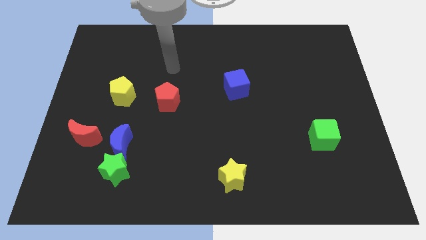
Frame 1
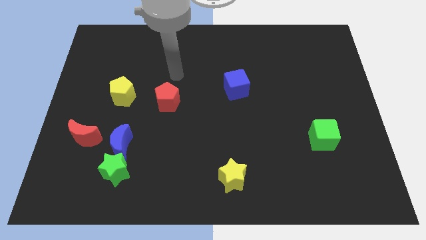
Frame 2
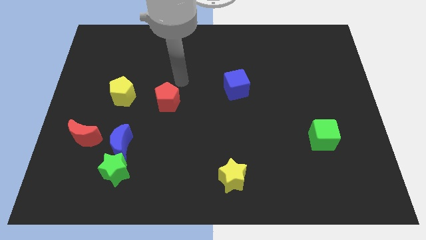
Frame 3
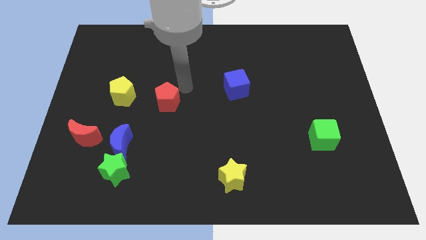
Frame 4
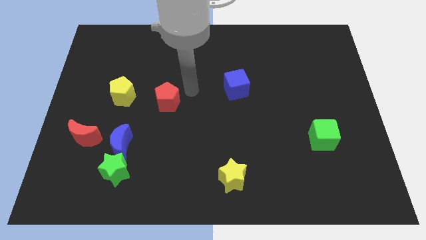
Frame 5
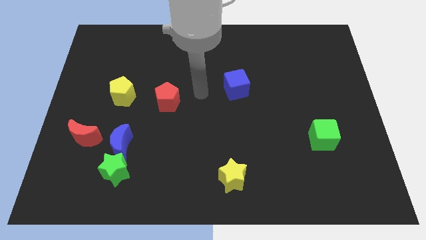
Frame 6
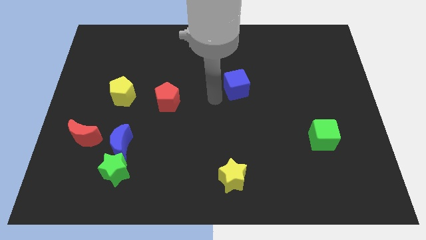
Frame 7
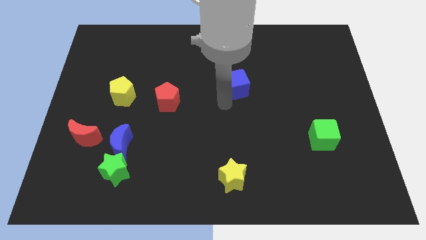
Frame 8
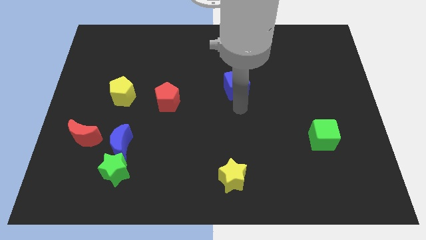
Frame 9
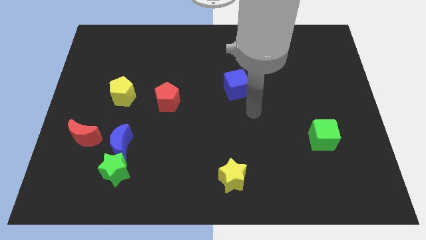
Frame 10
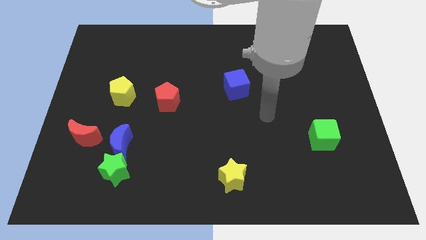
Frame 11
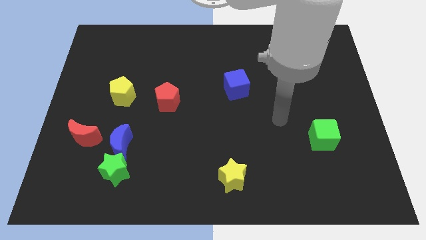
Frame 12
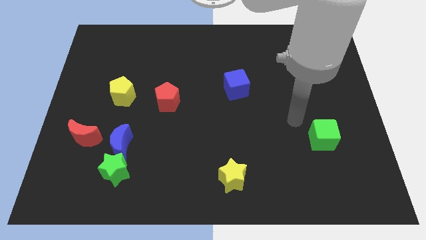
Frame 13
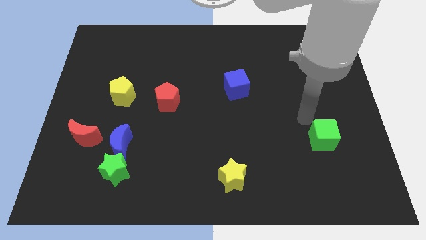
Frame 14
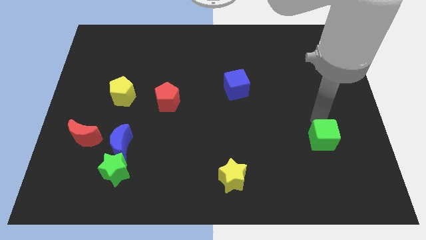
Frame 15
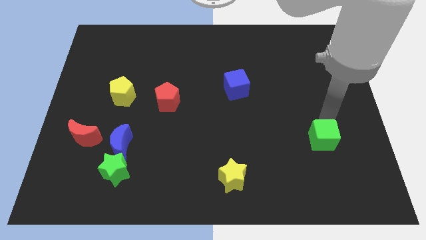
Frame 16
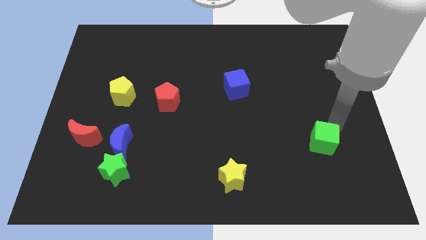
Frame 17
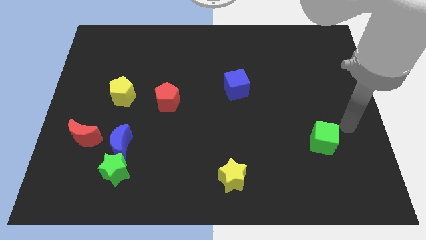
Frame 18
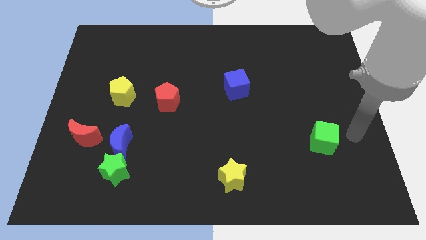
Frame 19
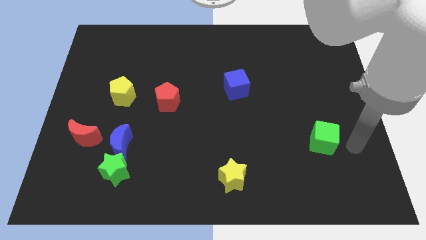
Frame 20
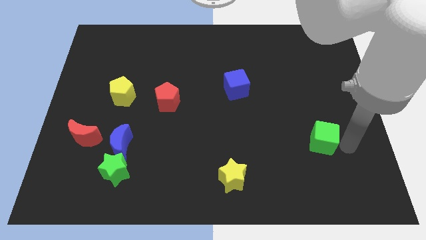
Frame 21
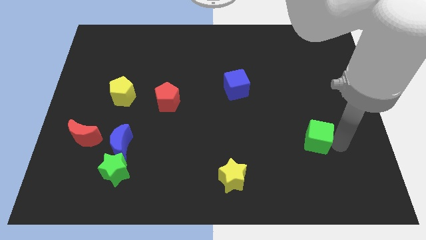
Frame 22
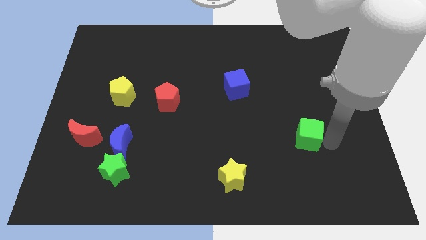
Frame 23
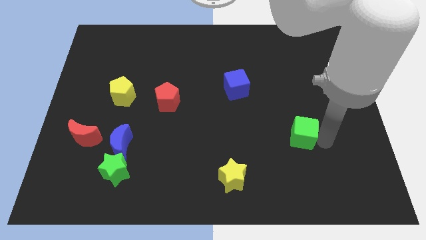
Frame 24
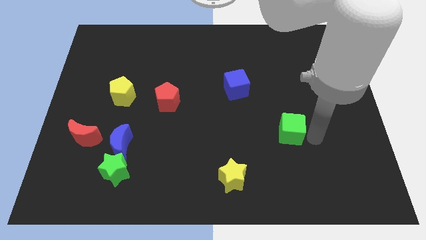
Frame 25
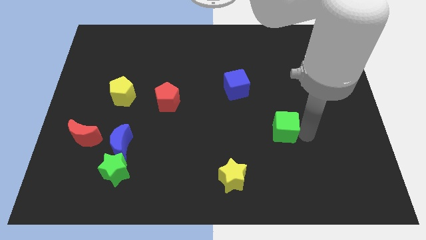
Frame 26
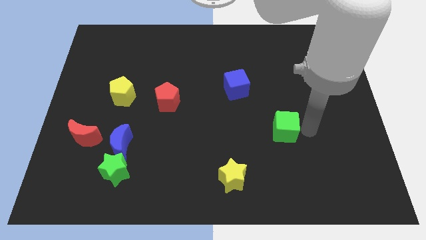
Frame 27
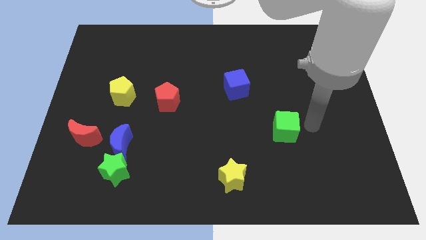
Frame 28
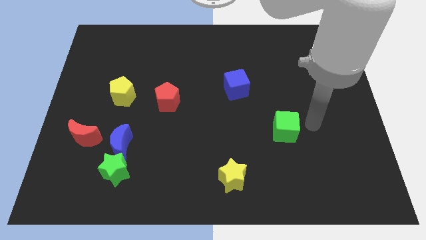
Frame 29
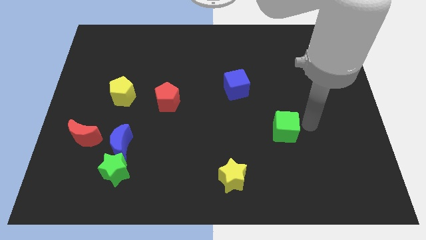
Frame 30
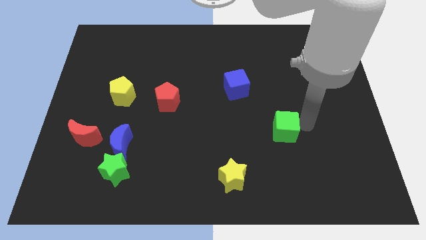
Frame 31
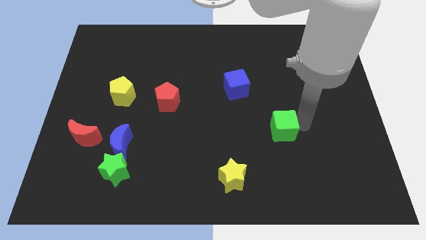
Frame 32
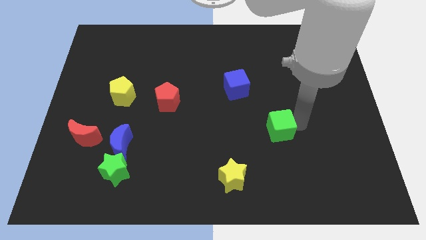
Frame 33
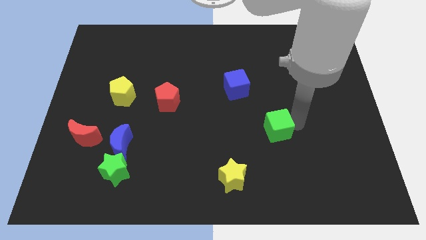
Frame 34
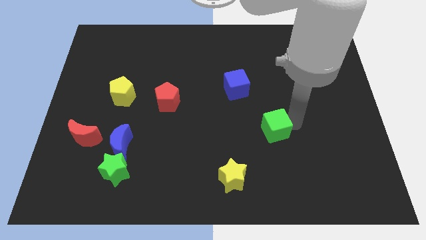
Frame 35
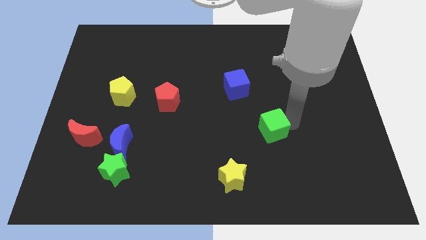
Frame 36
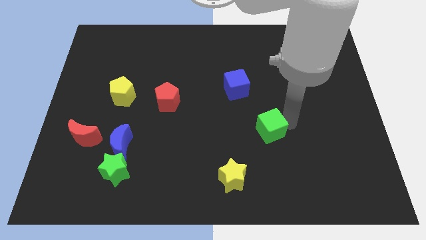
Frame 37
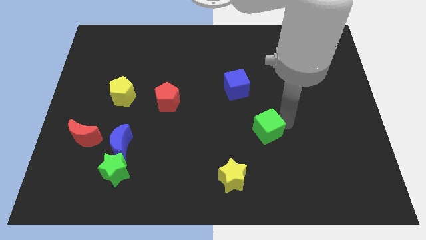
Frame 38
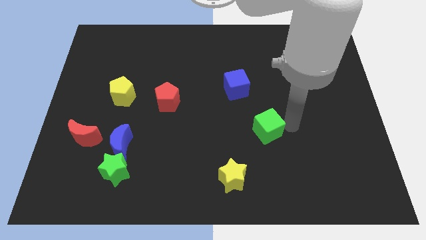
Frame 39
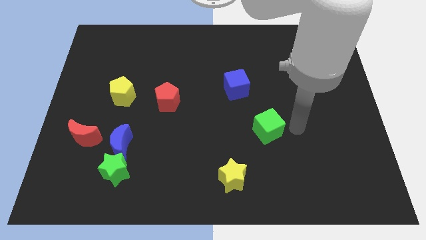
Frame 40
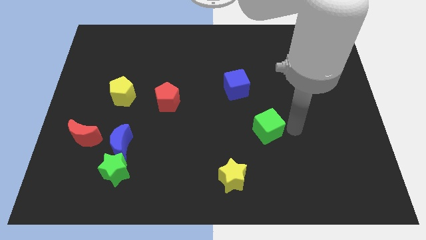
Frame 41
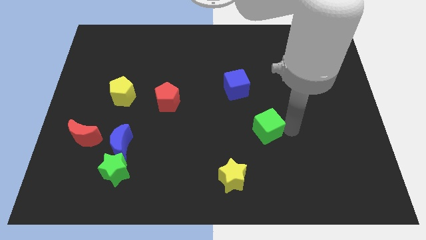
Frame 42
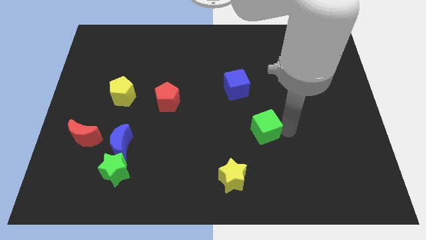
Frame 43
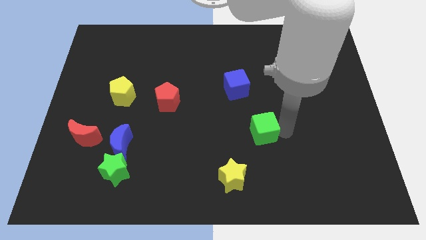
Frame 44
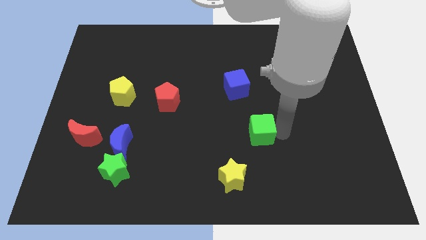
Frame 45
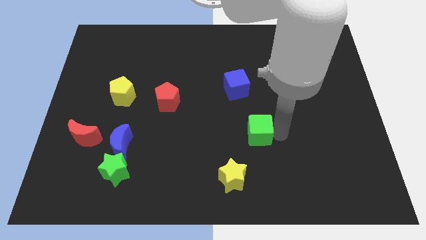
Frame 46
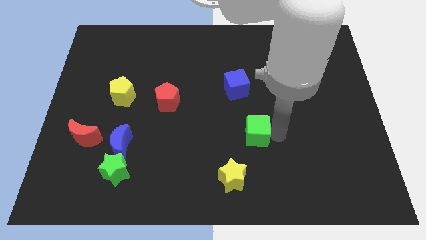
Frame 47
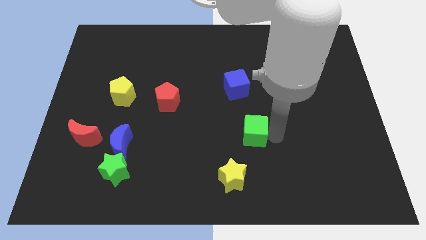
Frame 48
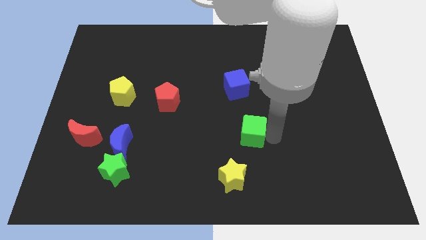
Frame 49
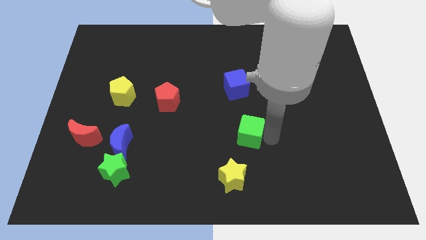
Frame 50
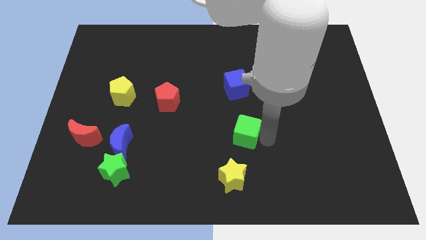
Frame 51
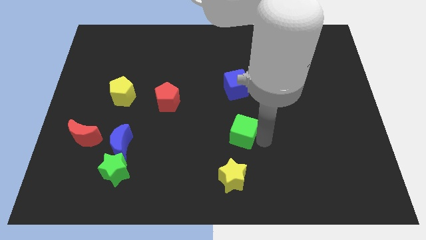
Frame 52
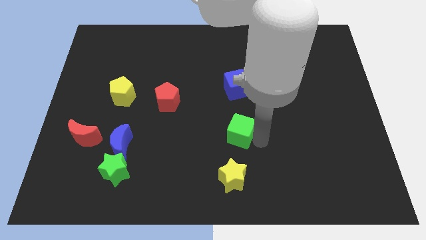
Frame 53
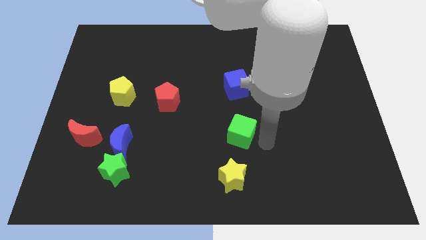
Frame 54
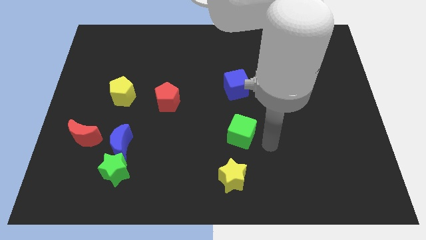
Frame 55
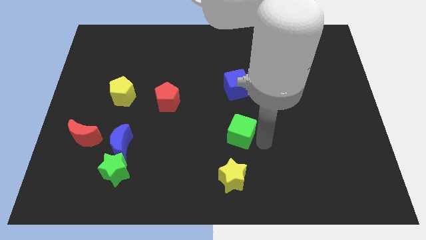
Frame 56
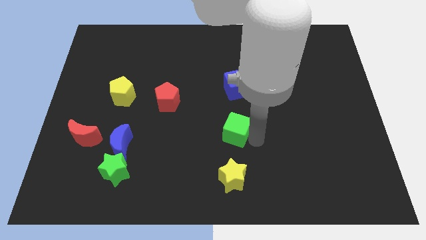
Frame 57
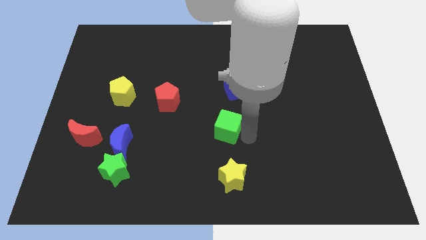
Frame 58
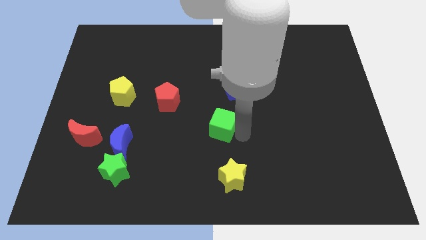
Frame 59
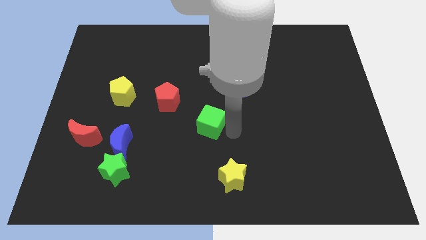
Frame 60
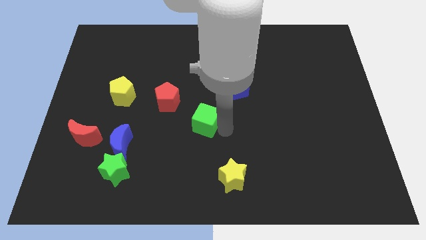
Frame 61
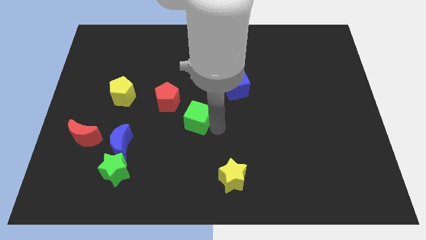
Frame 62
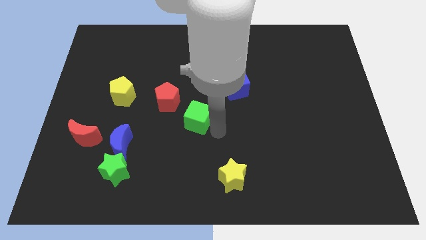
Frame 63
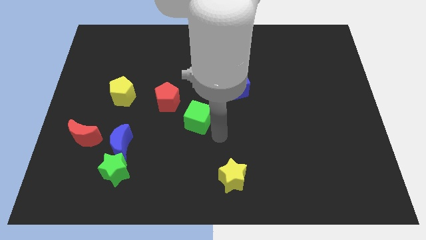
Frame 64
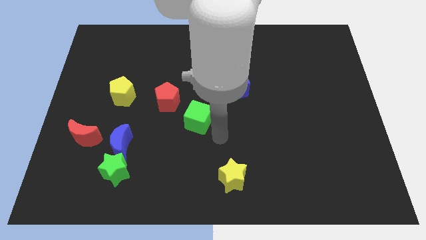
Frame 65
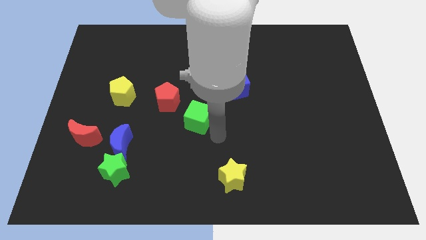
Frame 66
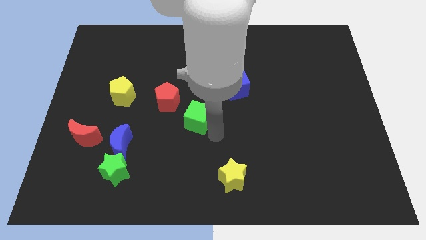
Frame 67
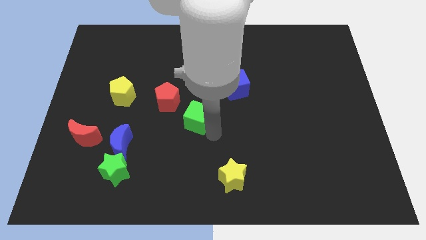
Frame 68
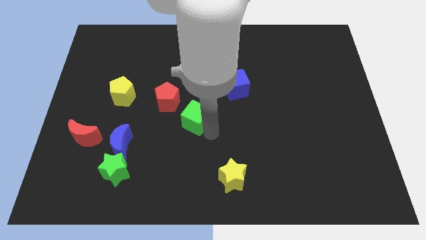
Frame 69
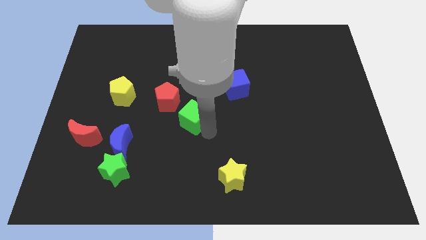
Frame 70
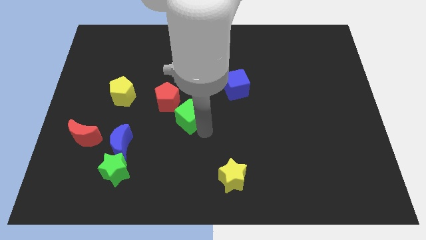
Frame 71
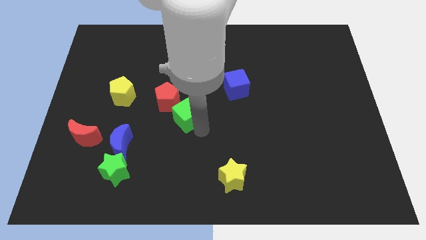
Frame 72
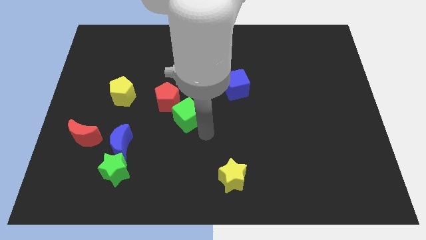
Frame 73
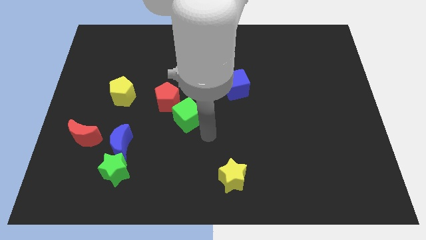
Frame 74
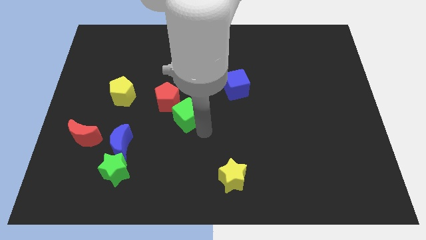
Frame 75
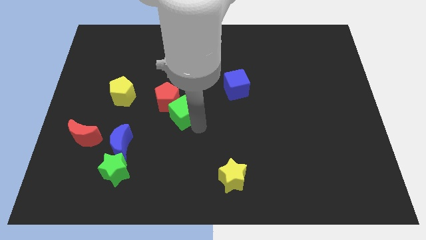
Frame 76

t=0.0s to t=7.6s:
push the green cube to the red pentagon
